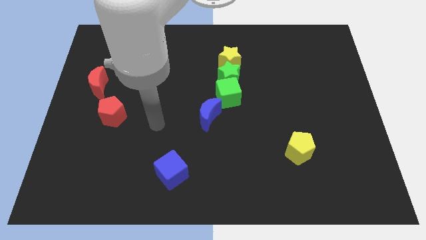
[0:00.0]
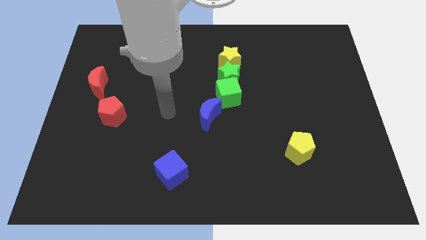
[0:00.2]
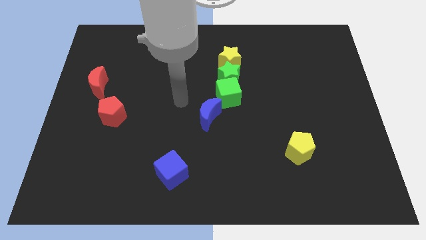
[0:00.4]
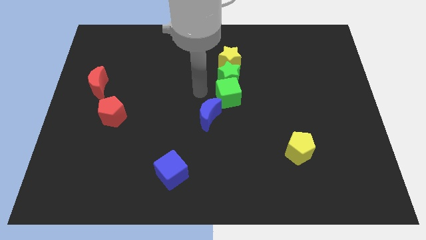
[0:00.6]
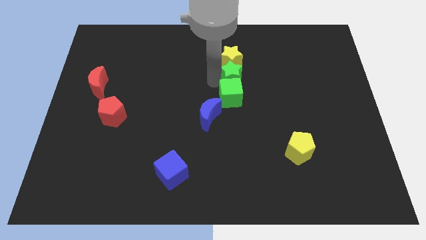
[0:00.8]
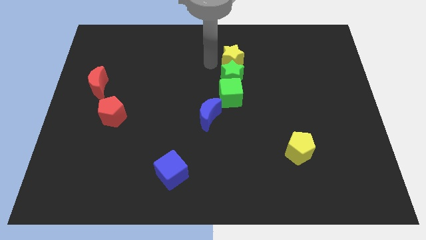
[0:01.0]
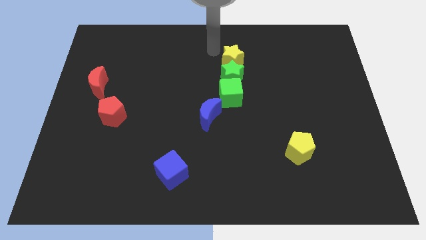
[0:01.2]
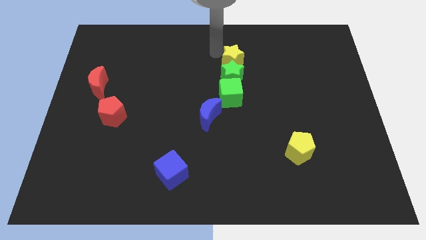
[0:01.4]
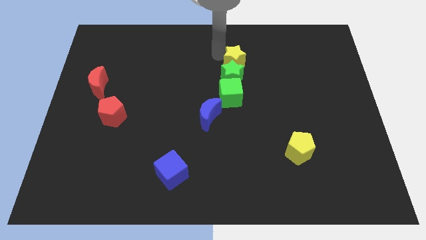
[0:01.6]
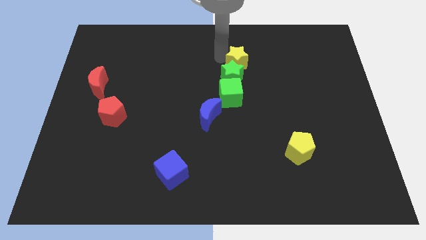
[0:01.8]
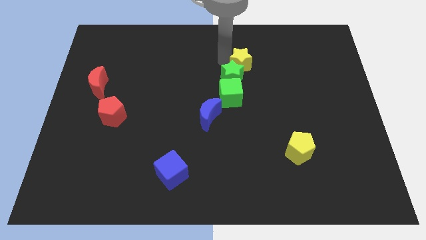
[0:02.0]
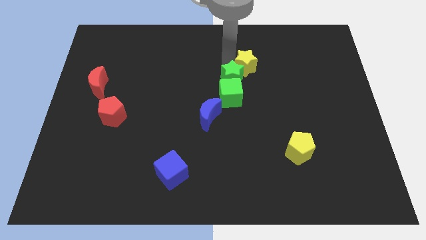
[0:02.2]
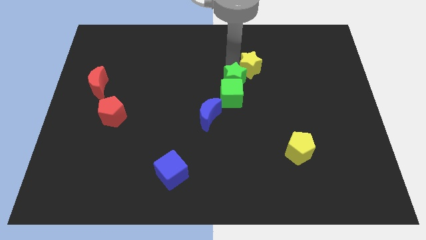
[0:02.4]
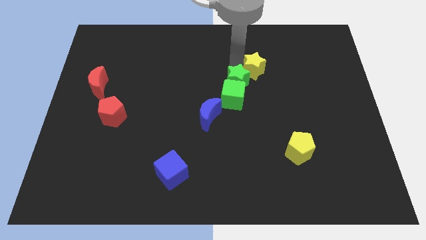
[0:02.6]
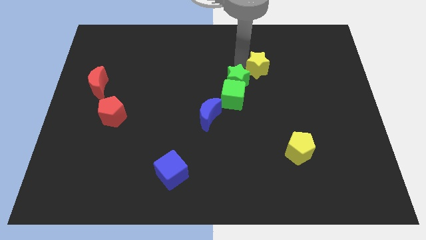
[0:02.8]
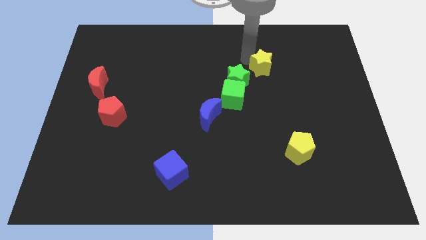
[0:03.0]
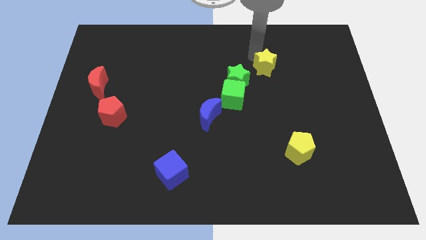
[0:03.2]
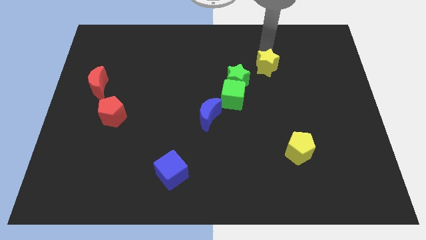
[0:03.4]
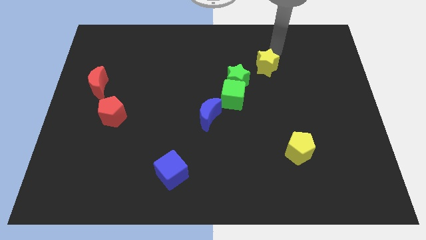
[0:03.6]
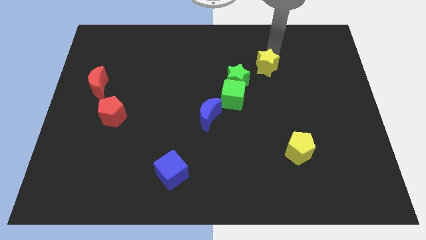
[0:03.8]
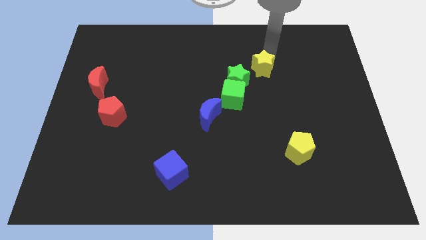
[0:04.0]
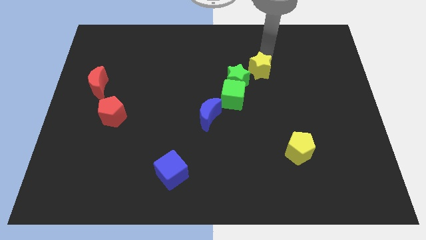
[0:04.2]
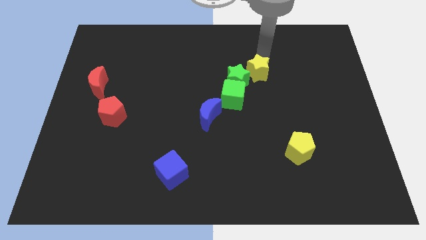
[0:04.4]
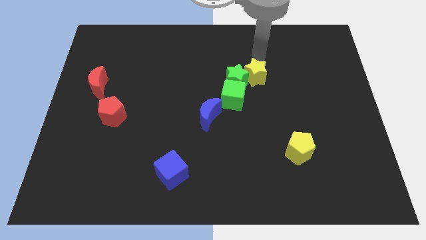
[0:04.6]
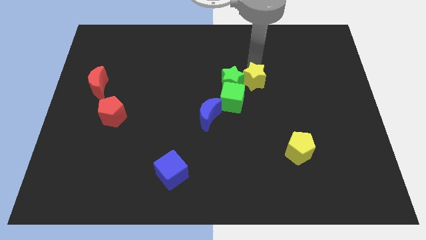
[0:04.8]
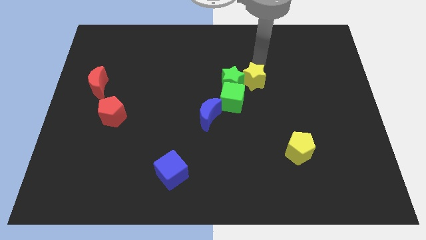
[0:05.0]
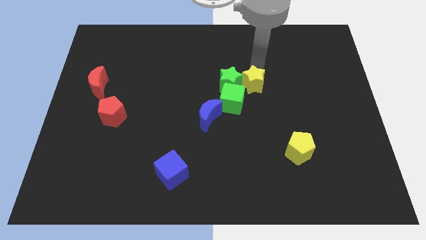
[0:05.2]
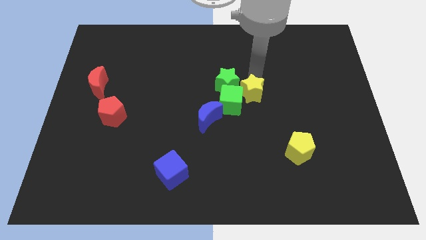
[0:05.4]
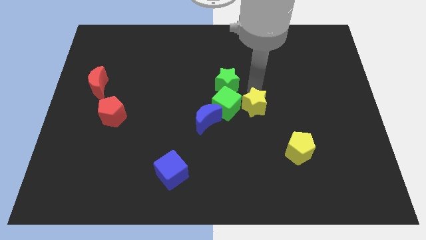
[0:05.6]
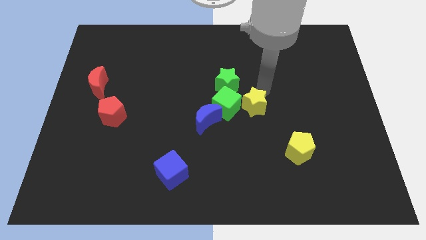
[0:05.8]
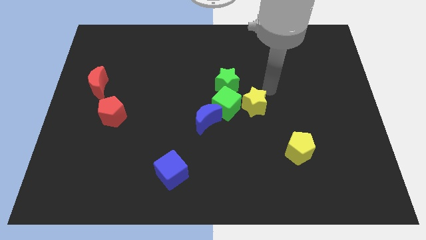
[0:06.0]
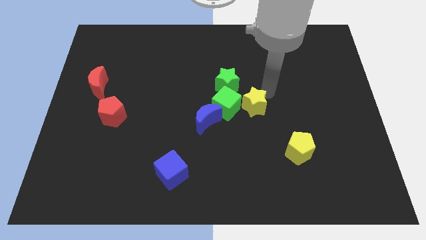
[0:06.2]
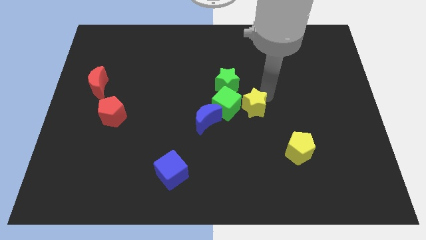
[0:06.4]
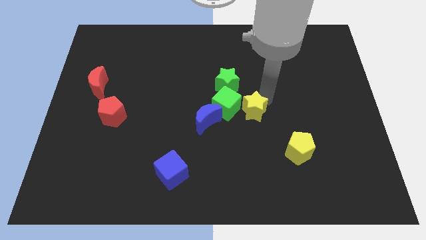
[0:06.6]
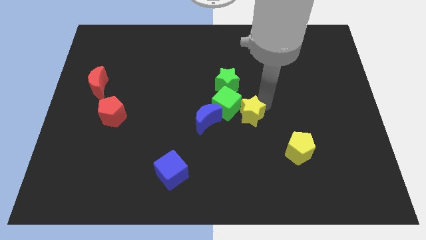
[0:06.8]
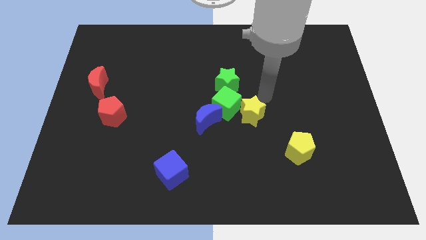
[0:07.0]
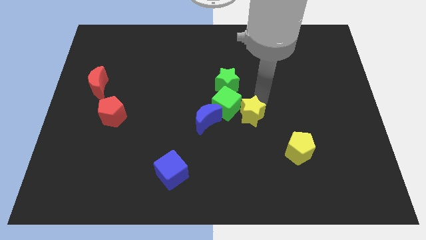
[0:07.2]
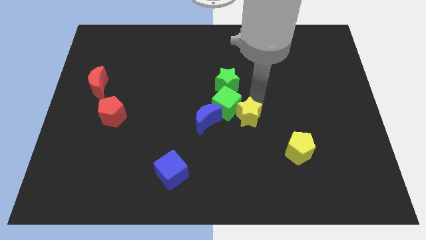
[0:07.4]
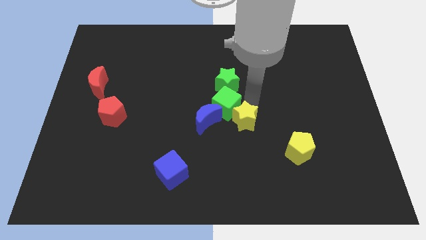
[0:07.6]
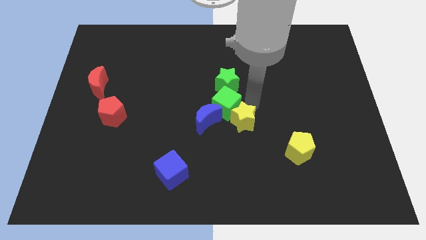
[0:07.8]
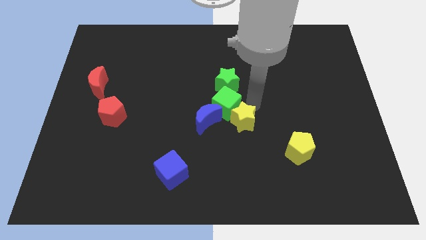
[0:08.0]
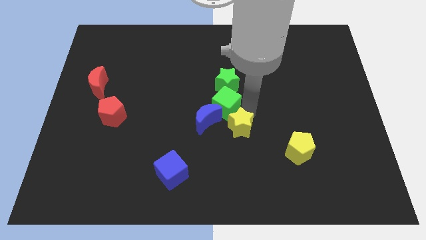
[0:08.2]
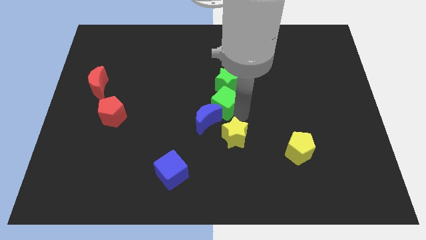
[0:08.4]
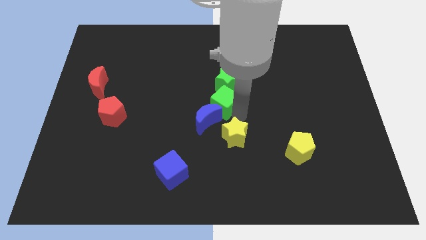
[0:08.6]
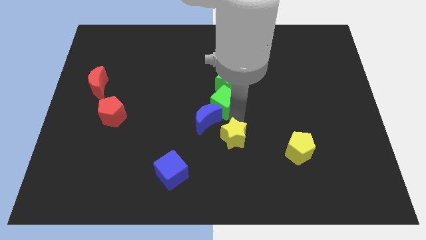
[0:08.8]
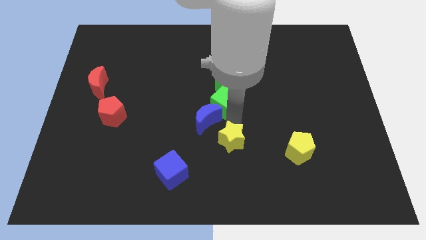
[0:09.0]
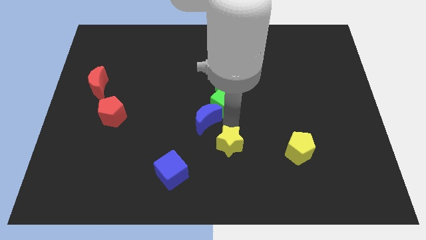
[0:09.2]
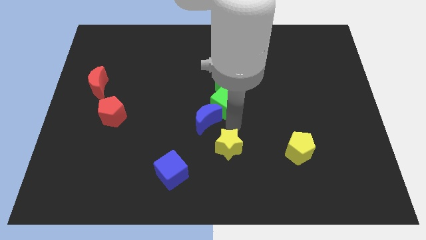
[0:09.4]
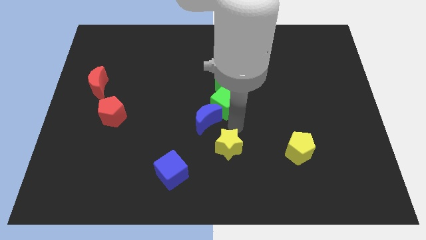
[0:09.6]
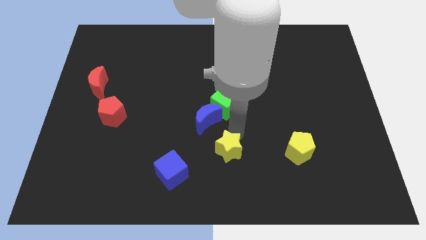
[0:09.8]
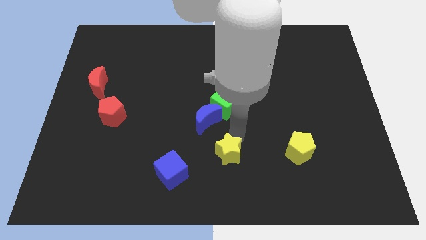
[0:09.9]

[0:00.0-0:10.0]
put the yellow star to the bottom side

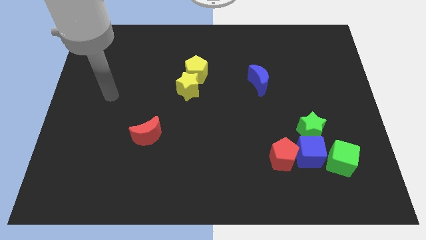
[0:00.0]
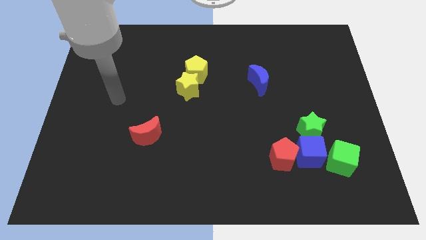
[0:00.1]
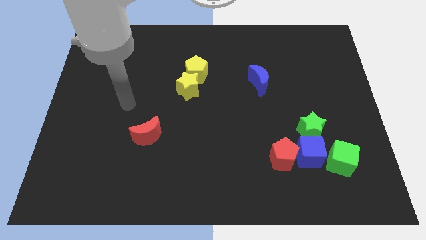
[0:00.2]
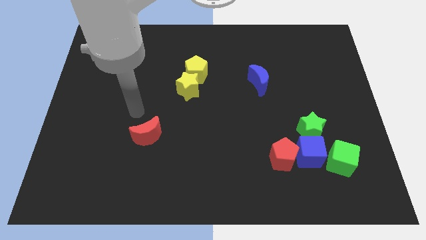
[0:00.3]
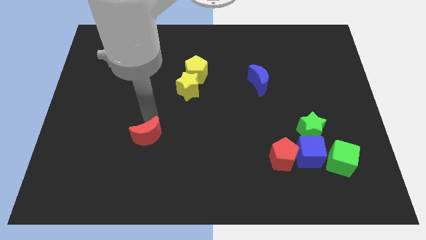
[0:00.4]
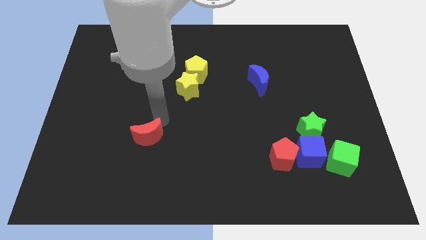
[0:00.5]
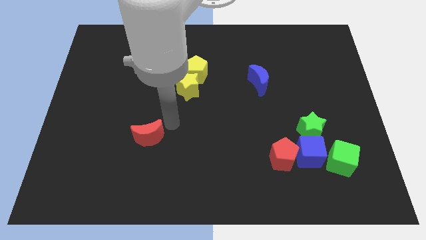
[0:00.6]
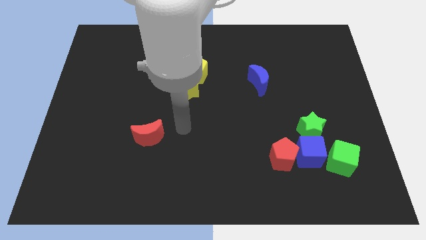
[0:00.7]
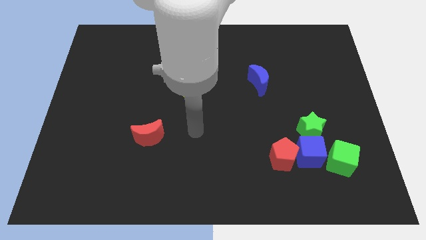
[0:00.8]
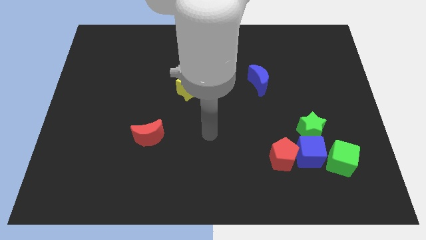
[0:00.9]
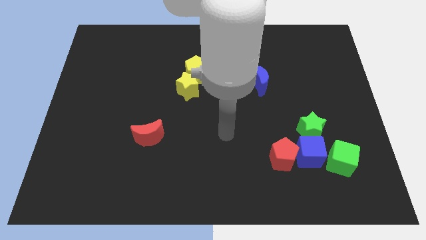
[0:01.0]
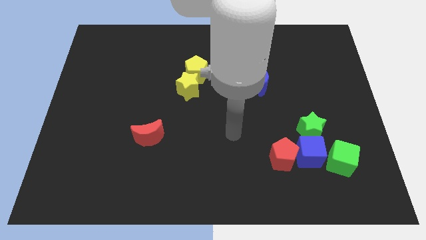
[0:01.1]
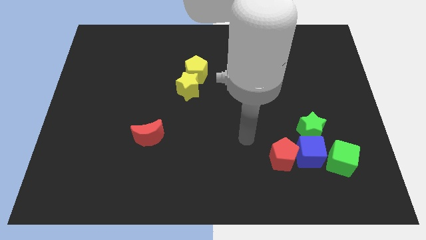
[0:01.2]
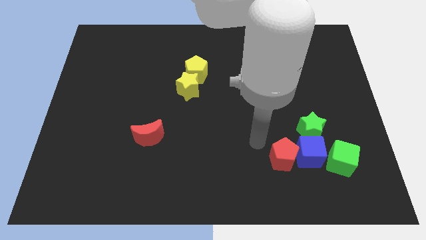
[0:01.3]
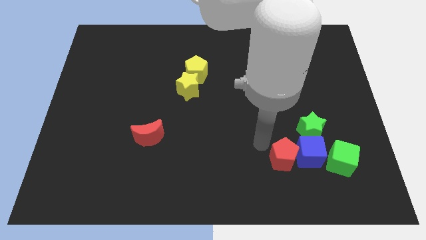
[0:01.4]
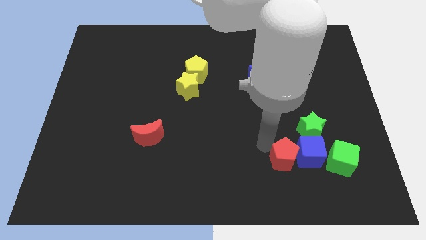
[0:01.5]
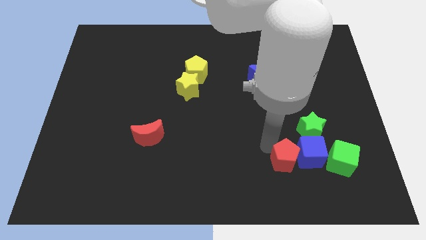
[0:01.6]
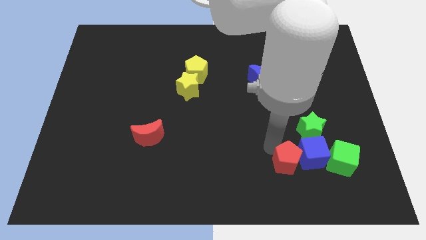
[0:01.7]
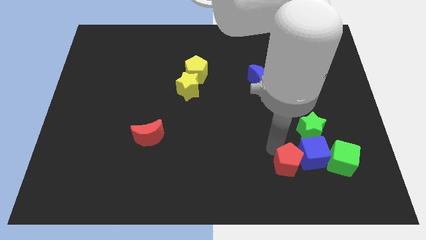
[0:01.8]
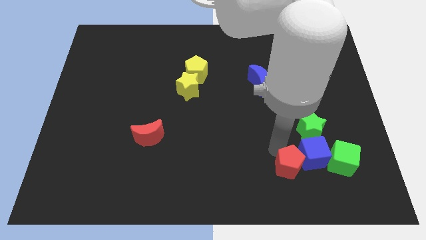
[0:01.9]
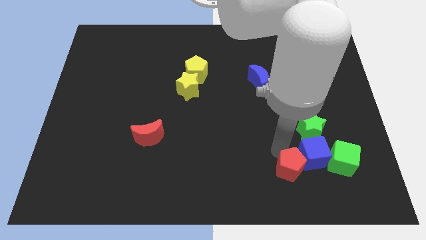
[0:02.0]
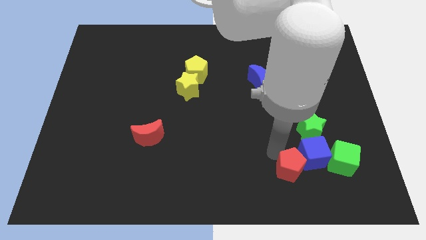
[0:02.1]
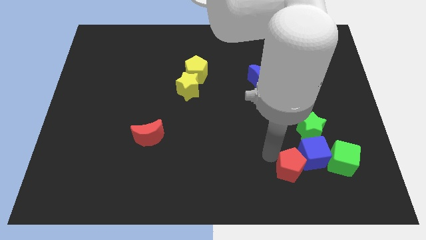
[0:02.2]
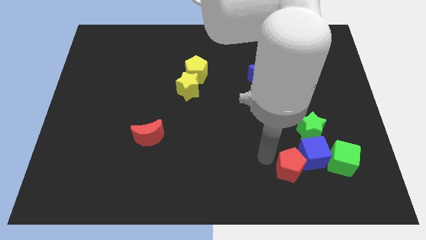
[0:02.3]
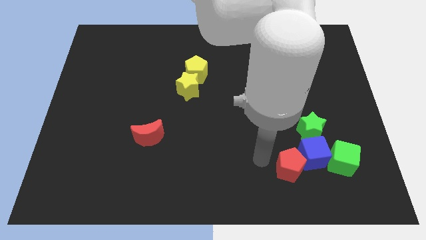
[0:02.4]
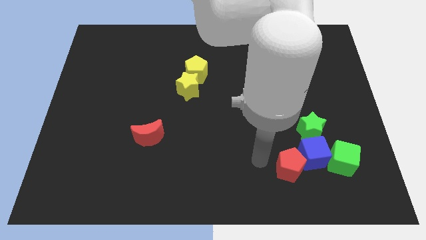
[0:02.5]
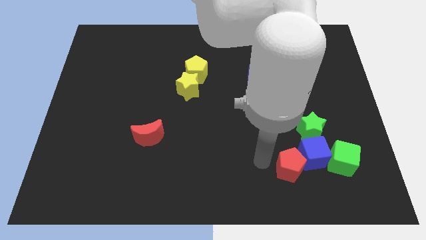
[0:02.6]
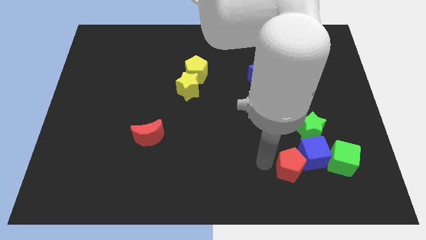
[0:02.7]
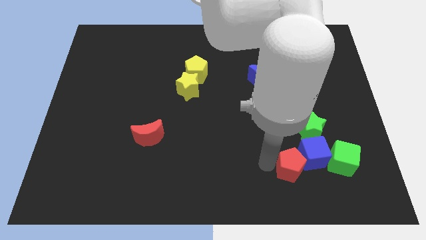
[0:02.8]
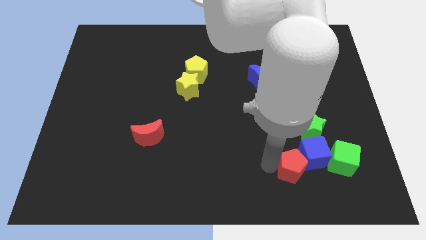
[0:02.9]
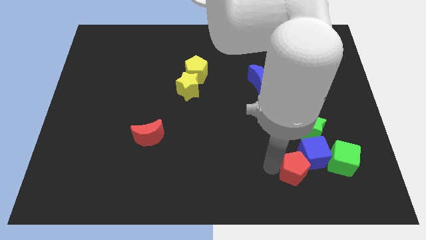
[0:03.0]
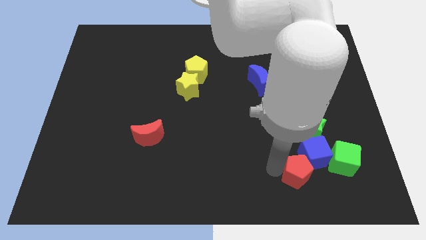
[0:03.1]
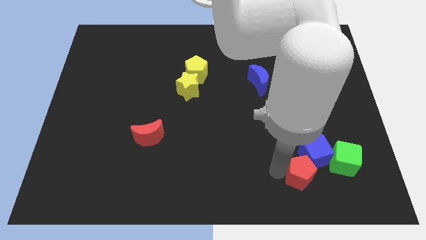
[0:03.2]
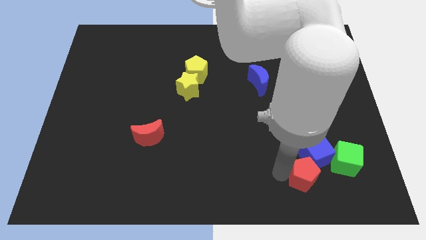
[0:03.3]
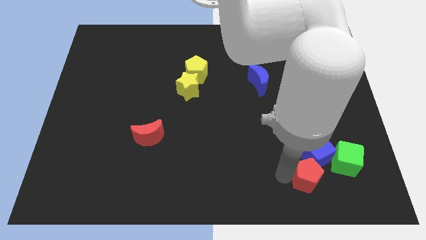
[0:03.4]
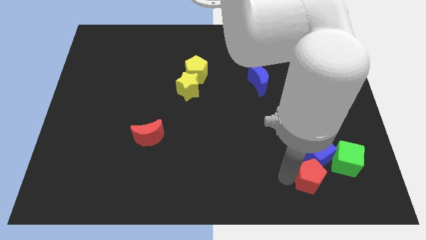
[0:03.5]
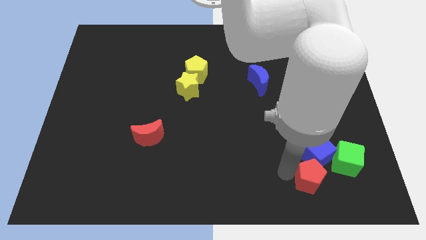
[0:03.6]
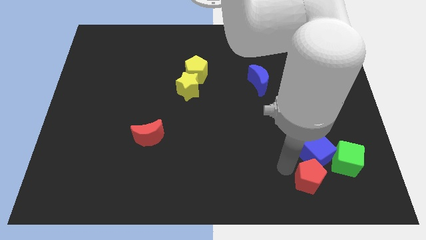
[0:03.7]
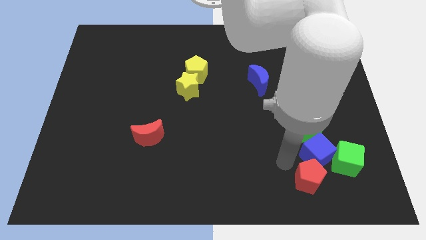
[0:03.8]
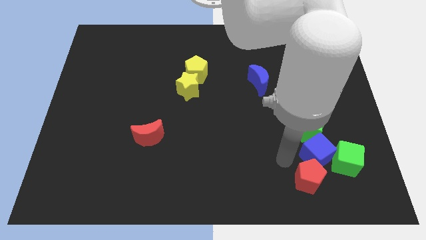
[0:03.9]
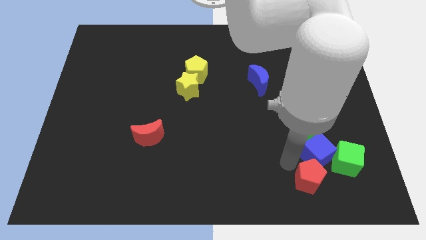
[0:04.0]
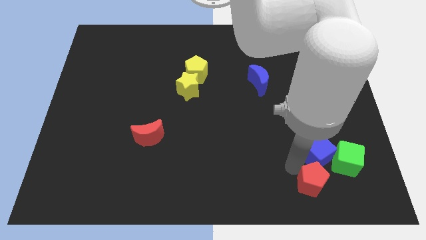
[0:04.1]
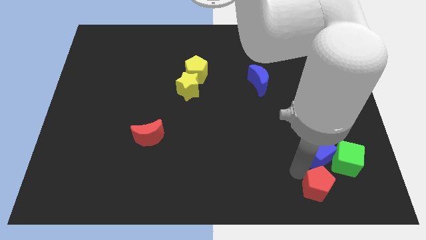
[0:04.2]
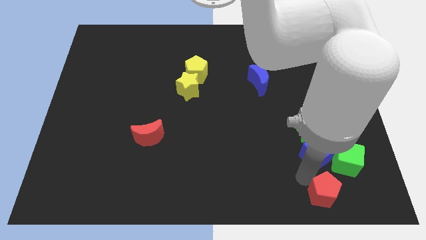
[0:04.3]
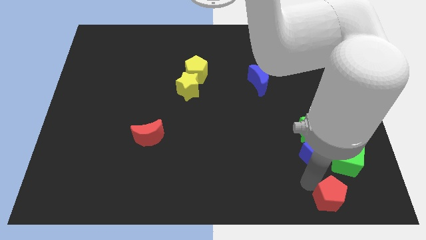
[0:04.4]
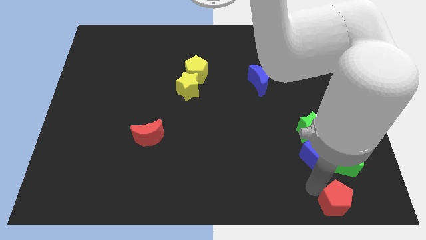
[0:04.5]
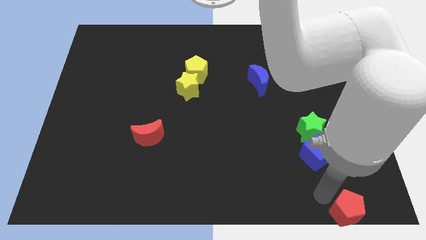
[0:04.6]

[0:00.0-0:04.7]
move the red pentagon to the bottom right corner
